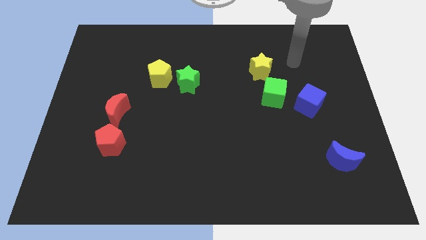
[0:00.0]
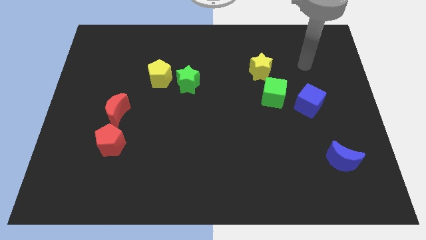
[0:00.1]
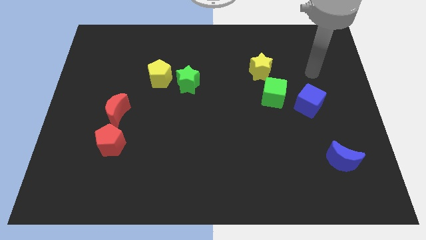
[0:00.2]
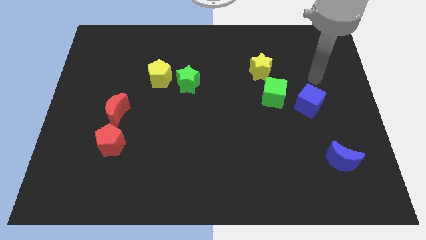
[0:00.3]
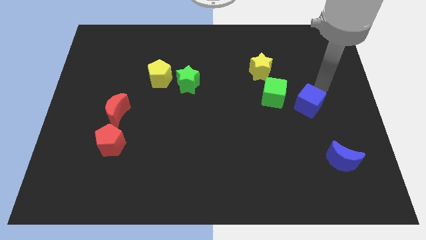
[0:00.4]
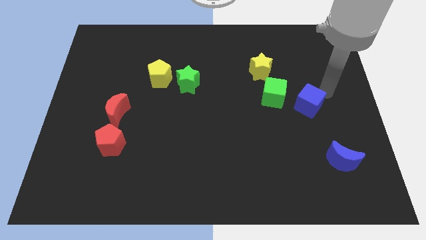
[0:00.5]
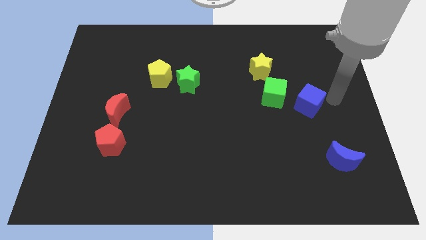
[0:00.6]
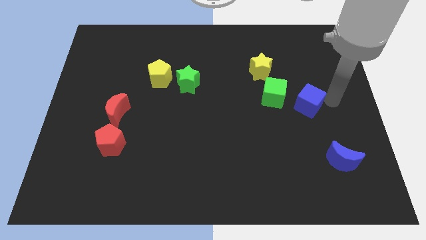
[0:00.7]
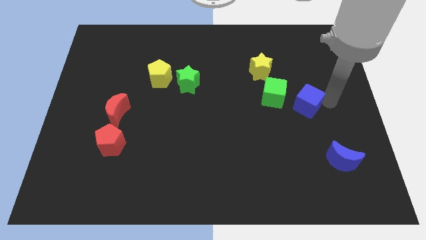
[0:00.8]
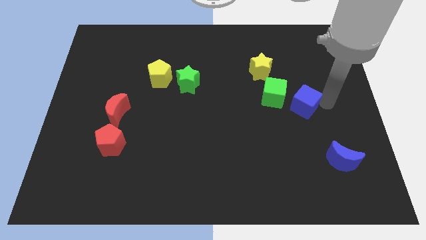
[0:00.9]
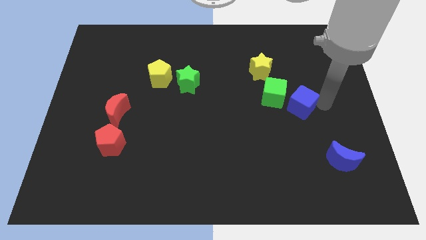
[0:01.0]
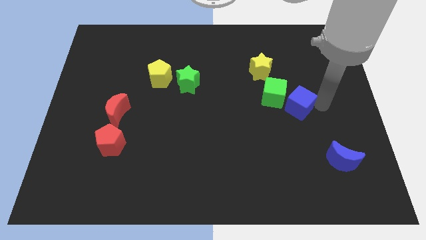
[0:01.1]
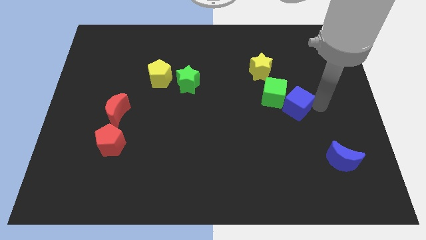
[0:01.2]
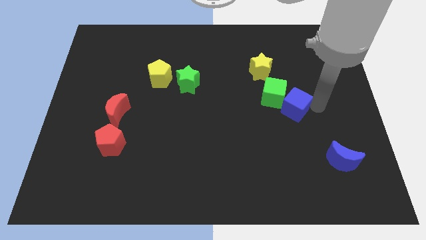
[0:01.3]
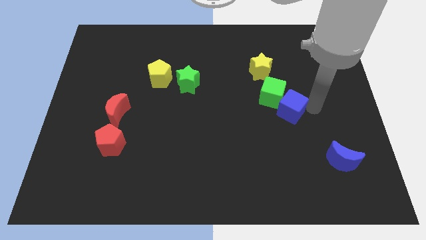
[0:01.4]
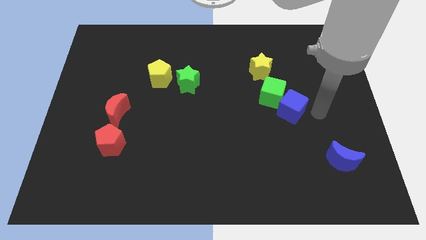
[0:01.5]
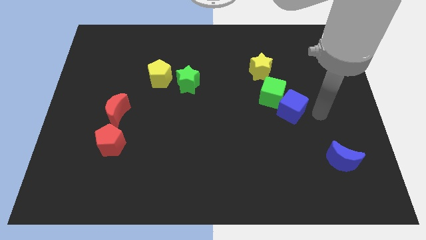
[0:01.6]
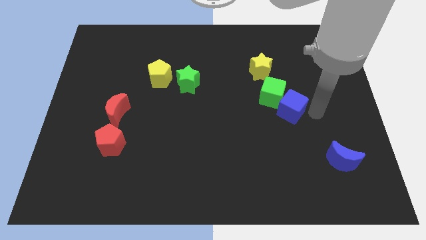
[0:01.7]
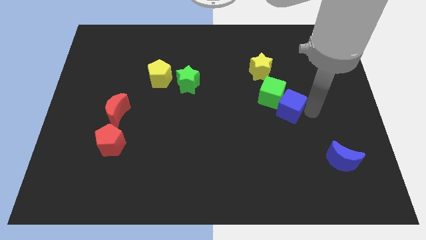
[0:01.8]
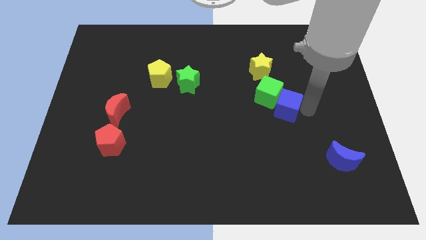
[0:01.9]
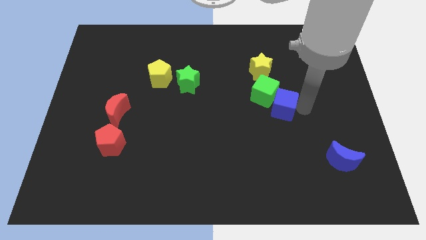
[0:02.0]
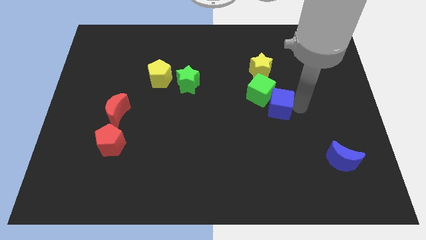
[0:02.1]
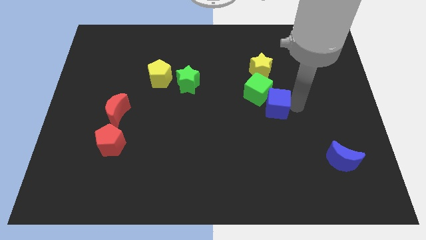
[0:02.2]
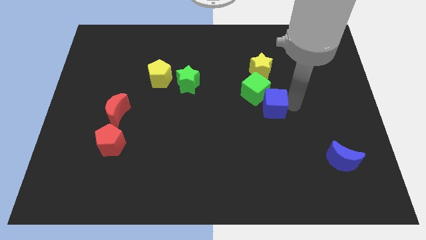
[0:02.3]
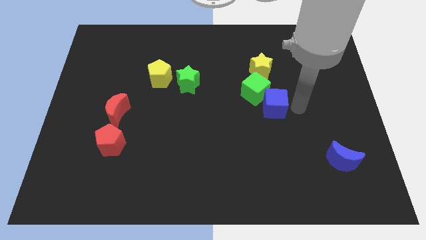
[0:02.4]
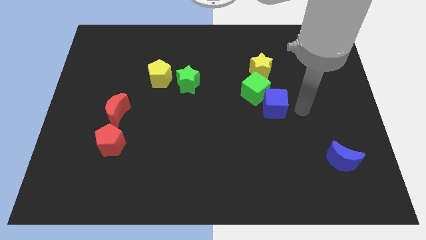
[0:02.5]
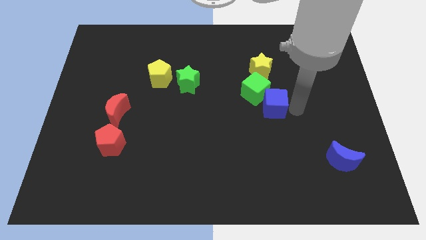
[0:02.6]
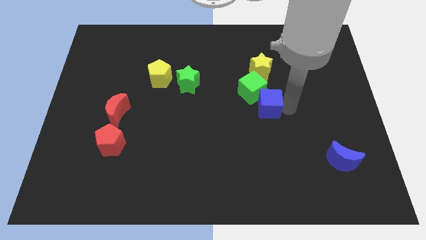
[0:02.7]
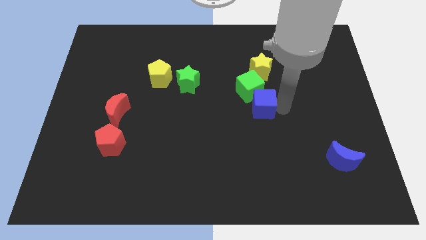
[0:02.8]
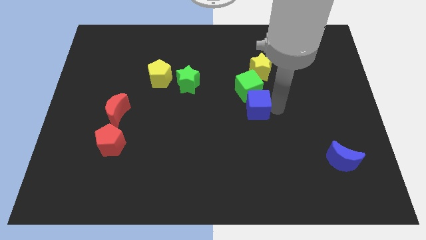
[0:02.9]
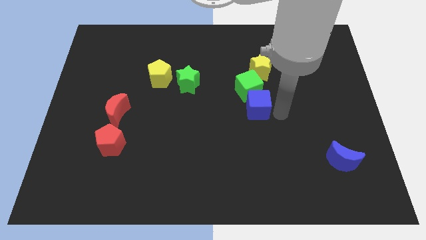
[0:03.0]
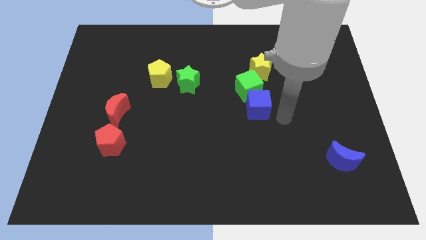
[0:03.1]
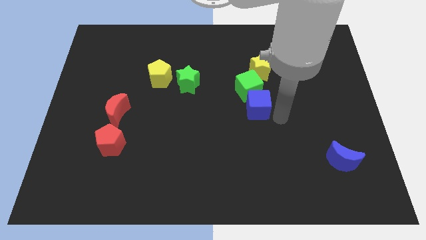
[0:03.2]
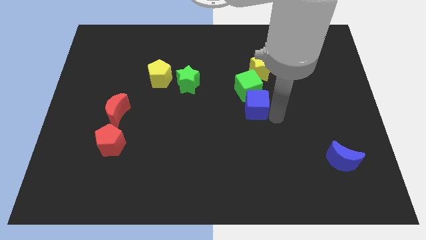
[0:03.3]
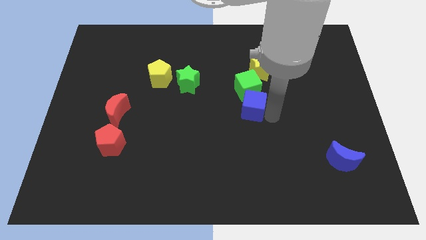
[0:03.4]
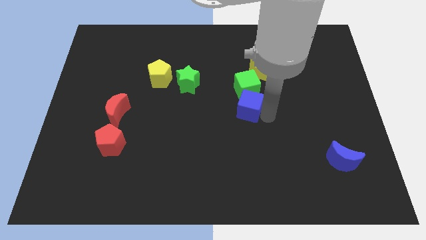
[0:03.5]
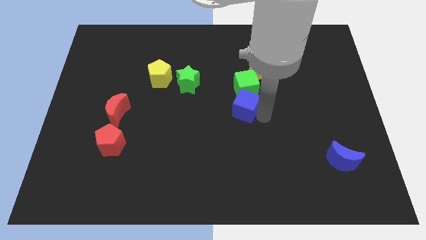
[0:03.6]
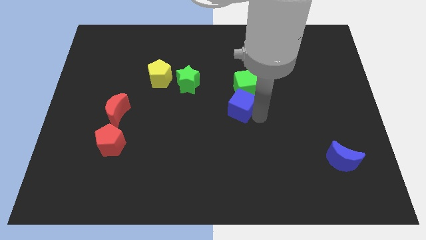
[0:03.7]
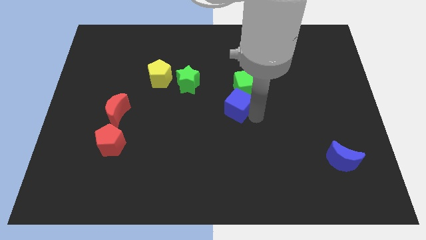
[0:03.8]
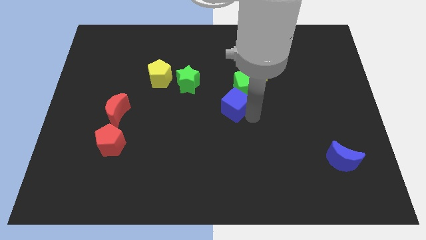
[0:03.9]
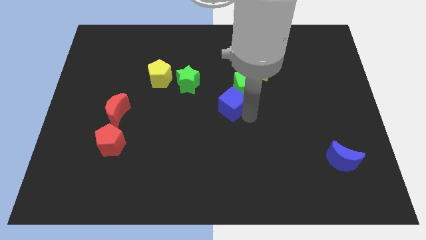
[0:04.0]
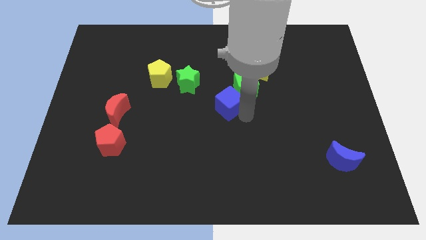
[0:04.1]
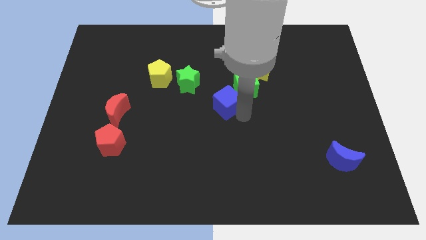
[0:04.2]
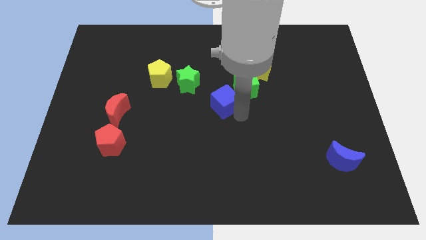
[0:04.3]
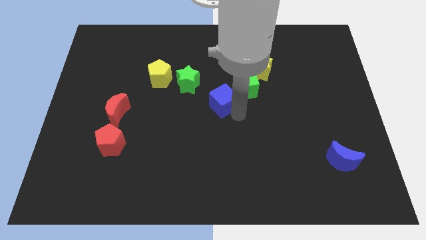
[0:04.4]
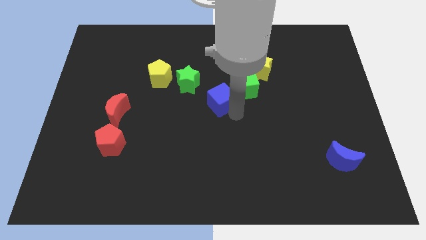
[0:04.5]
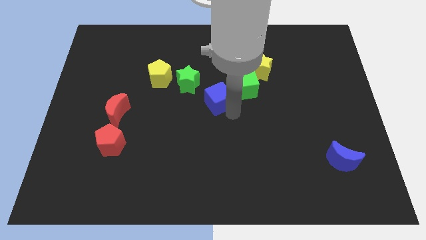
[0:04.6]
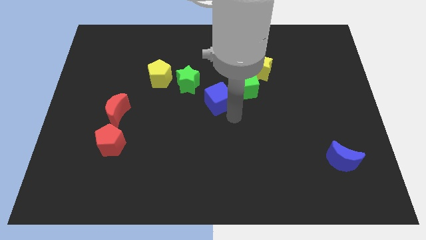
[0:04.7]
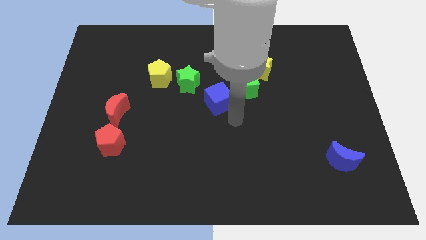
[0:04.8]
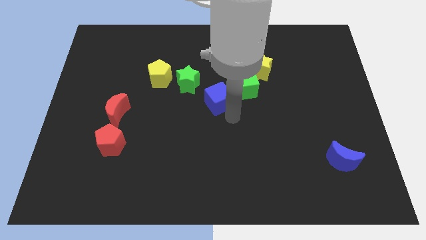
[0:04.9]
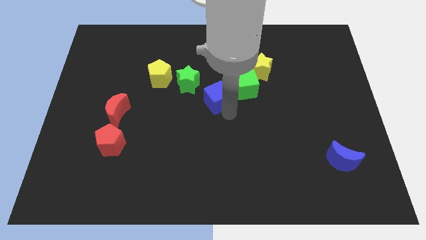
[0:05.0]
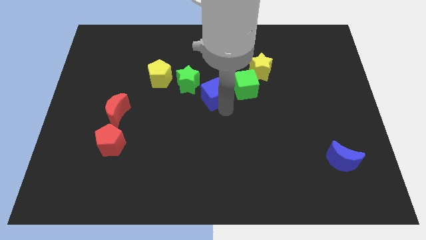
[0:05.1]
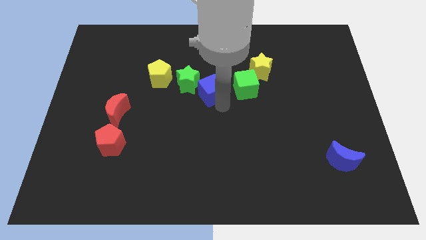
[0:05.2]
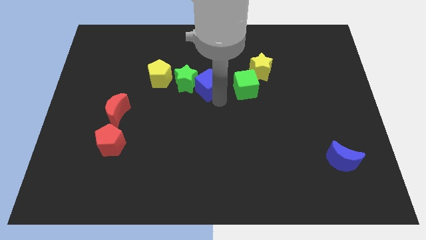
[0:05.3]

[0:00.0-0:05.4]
move the blue cube towards the green star

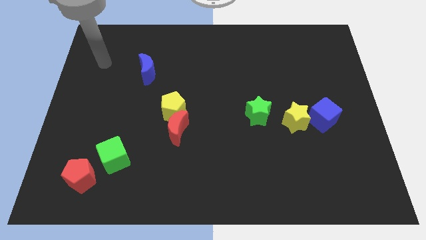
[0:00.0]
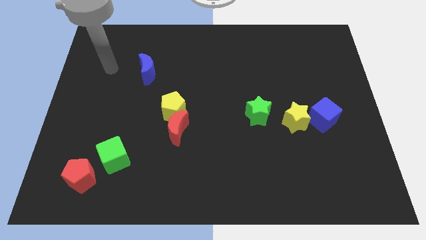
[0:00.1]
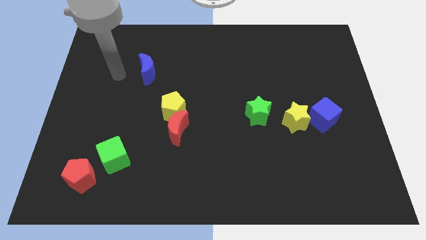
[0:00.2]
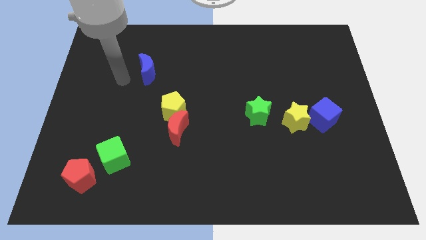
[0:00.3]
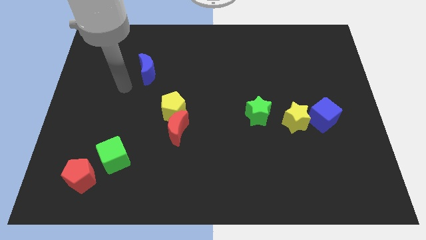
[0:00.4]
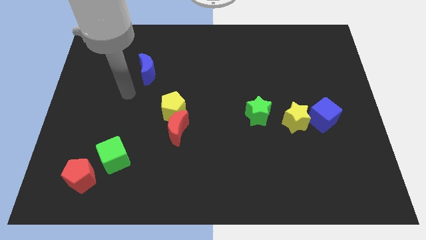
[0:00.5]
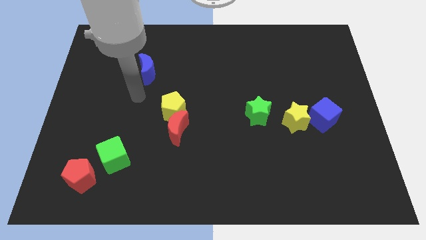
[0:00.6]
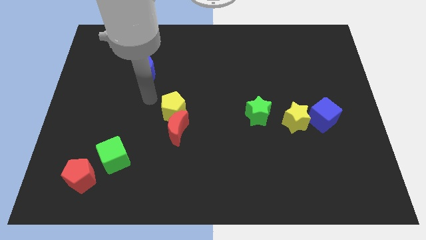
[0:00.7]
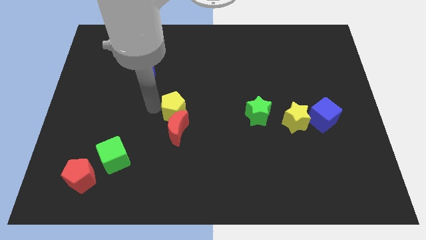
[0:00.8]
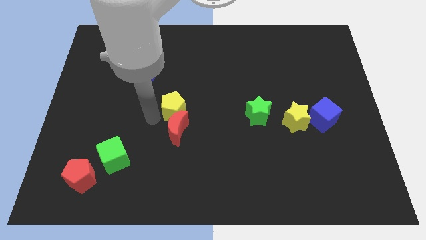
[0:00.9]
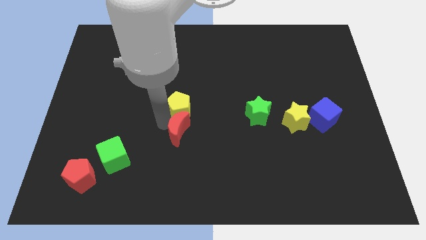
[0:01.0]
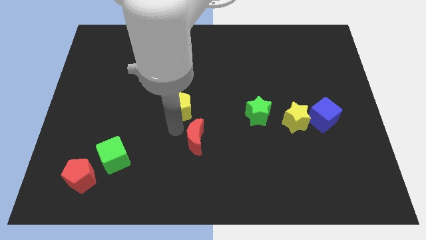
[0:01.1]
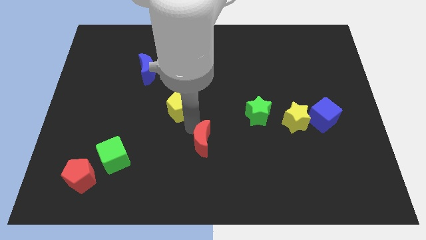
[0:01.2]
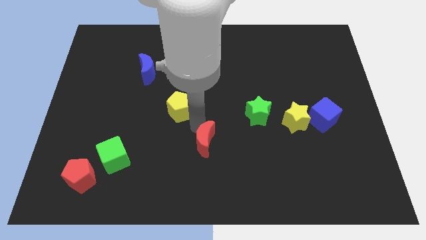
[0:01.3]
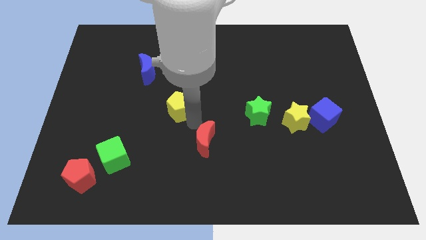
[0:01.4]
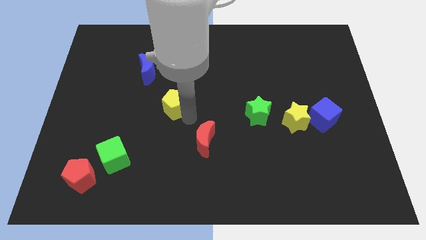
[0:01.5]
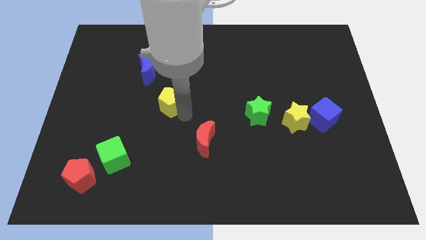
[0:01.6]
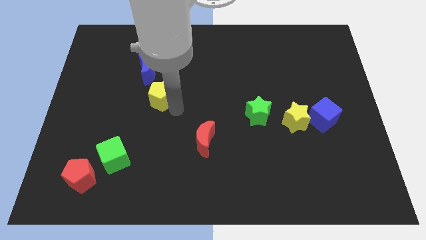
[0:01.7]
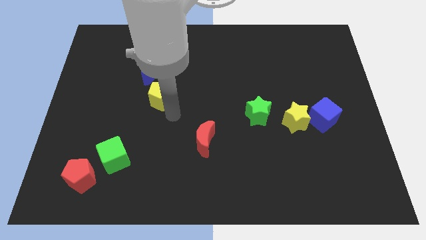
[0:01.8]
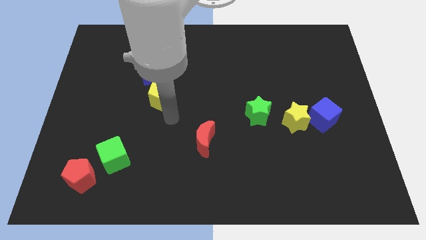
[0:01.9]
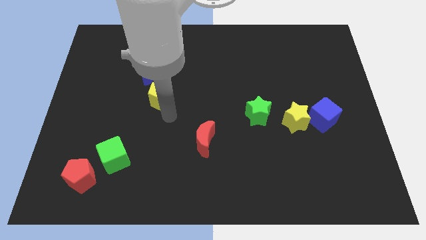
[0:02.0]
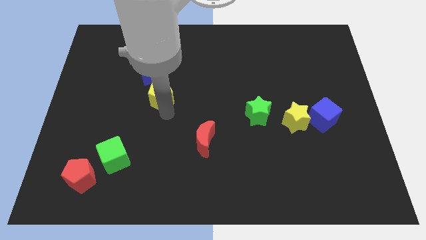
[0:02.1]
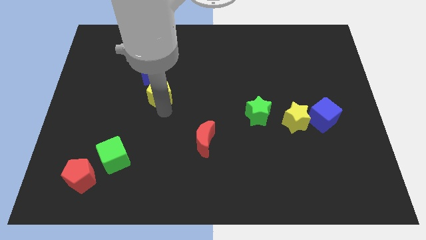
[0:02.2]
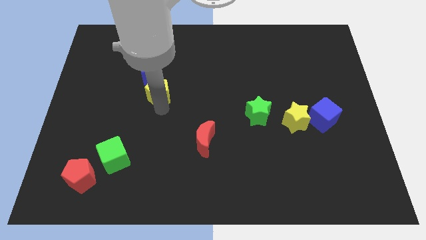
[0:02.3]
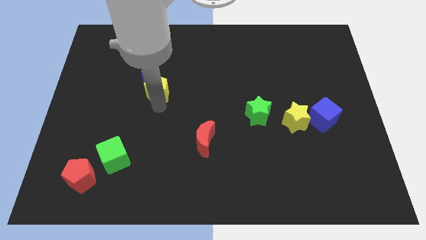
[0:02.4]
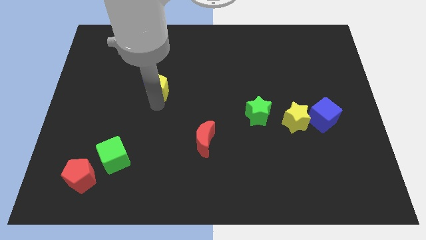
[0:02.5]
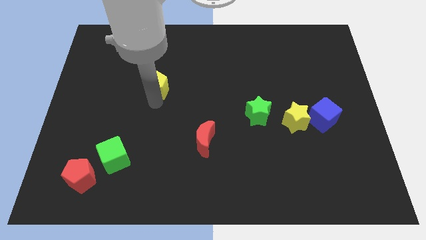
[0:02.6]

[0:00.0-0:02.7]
push the yellow pentagon towards the blue moon
